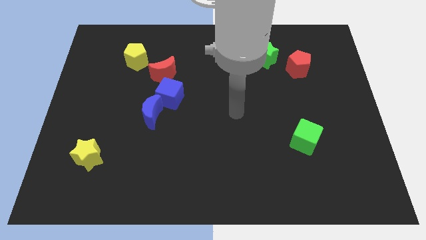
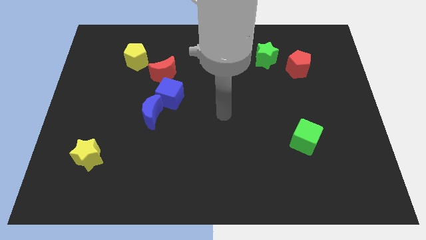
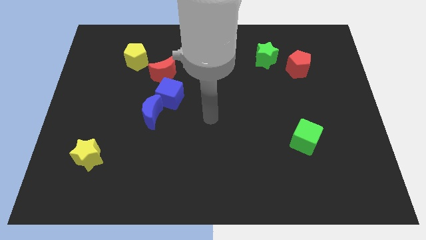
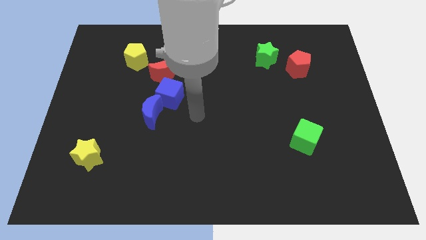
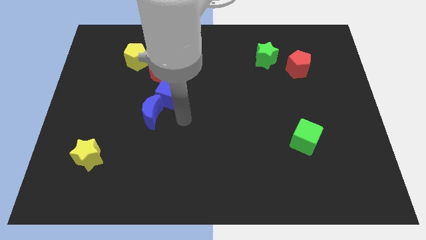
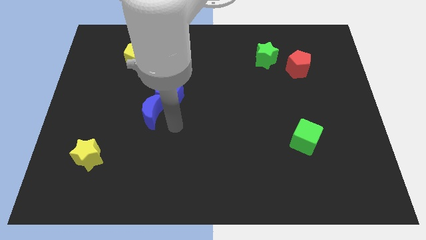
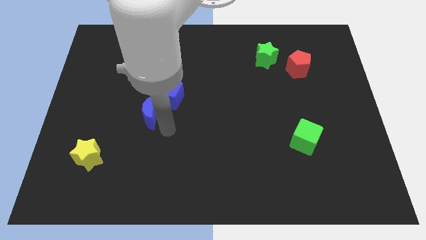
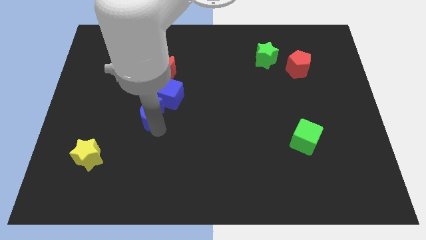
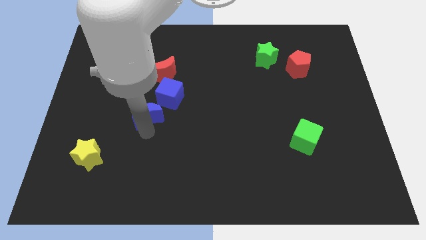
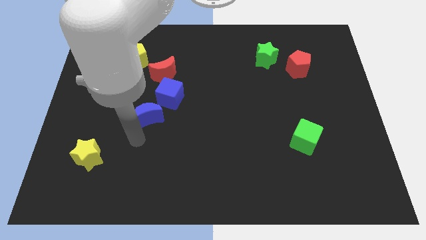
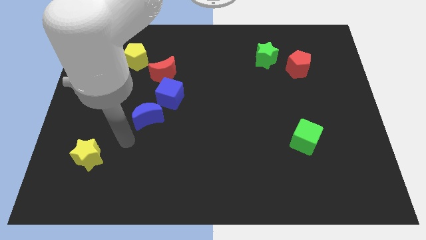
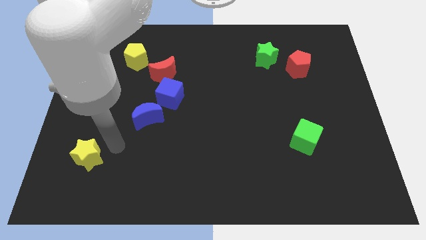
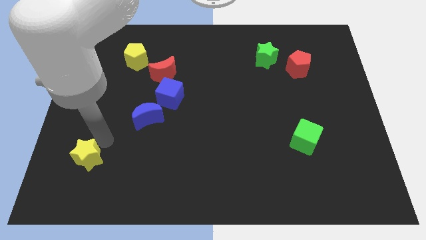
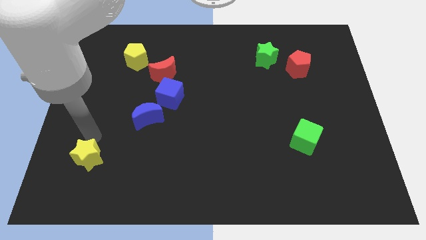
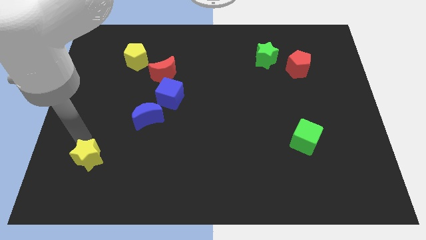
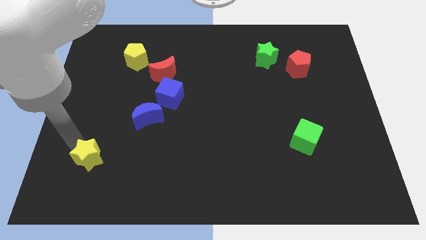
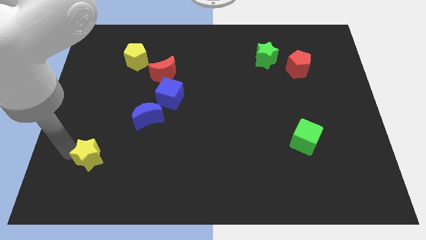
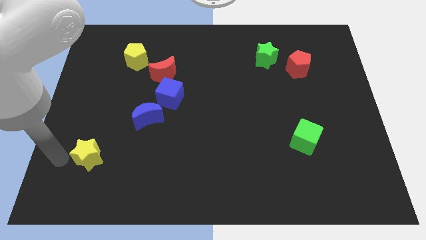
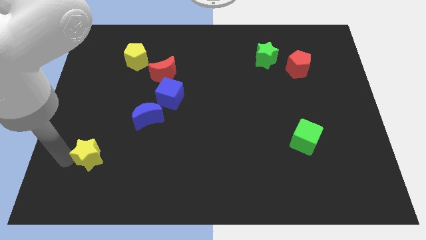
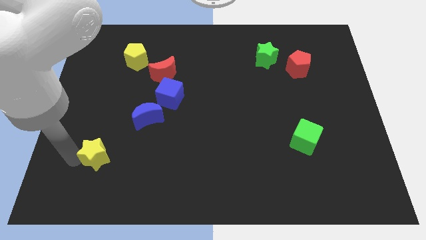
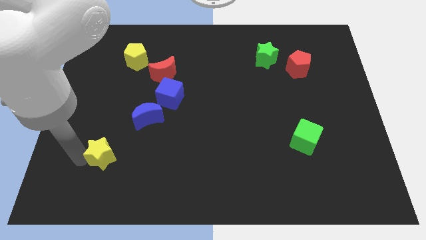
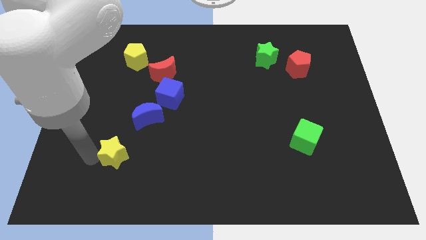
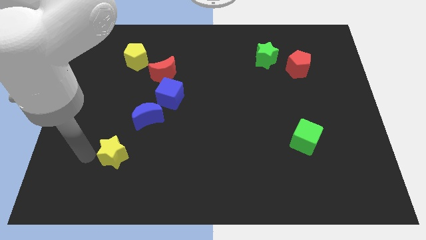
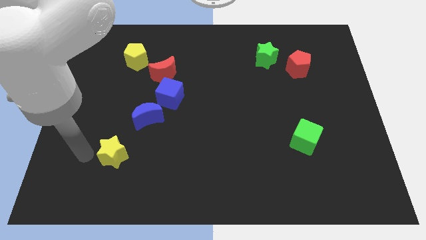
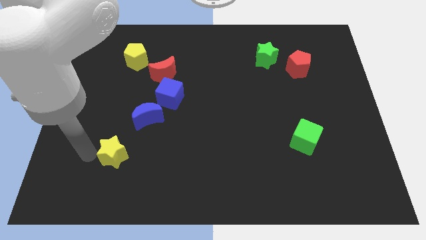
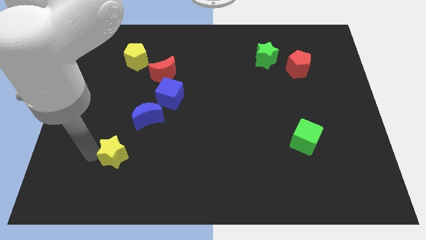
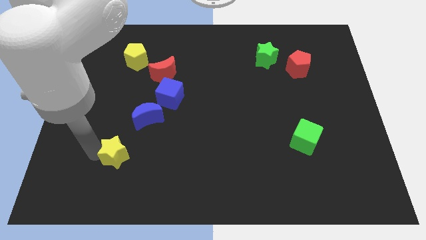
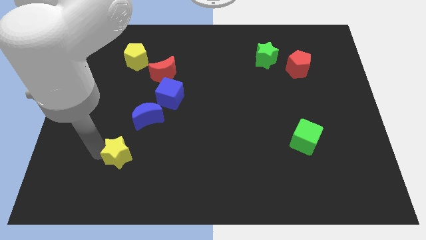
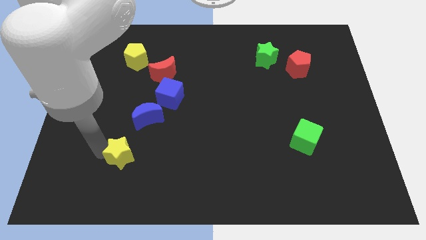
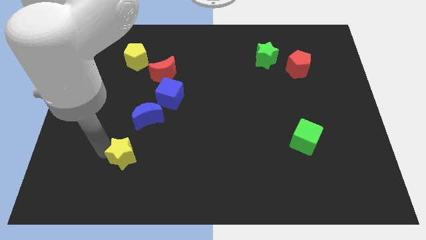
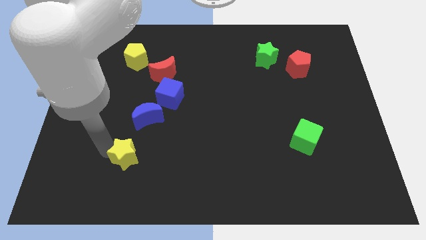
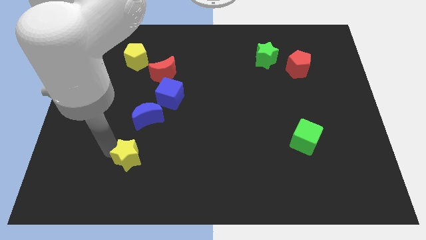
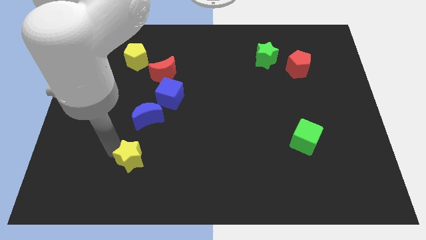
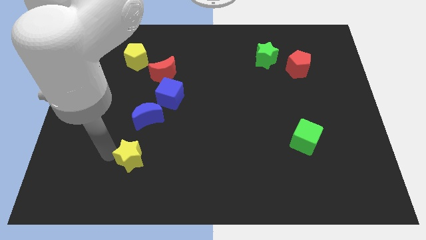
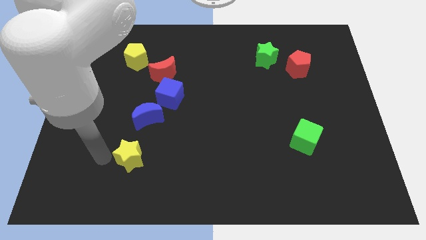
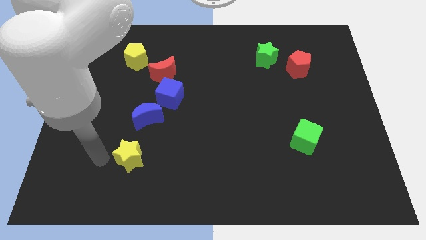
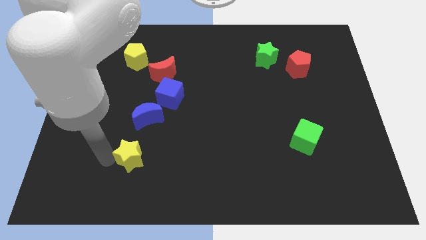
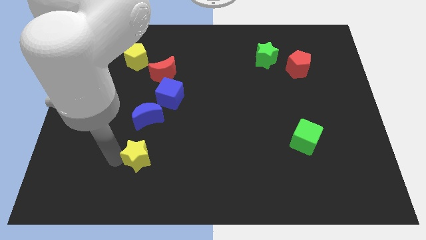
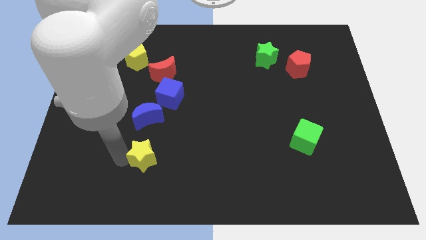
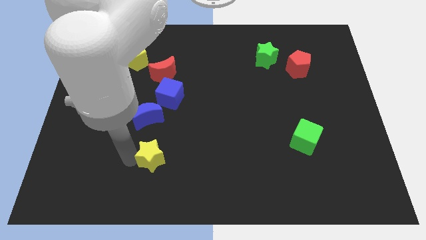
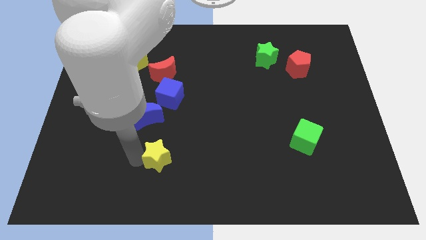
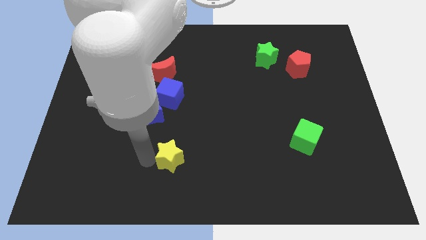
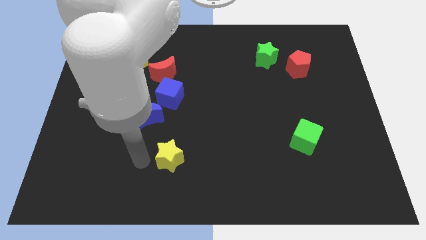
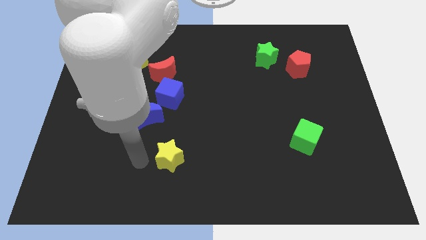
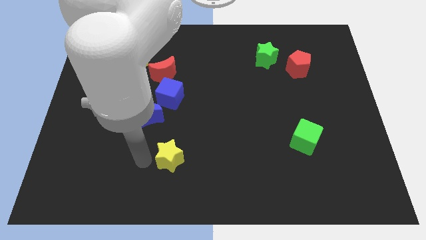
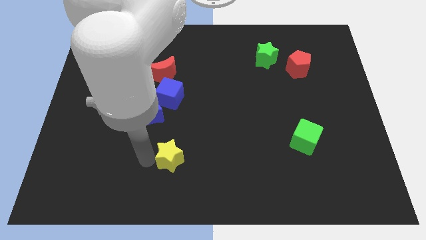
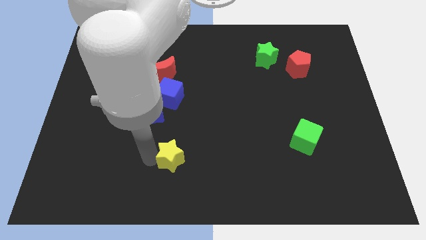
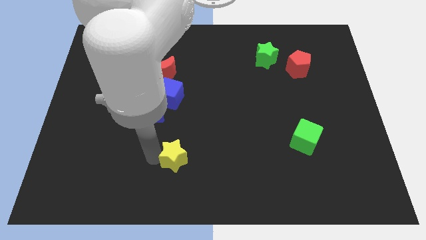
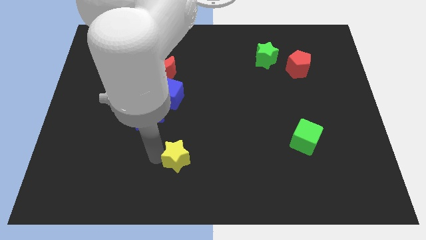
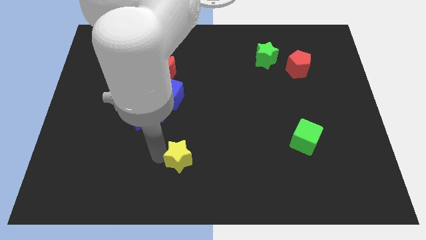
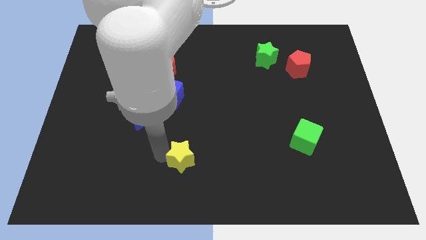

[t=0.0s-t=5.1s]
push the yellow star to the right

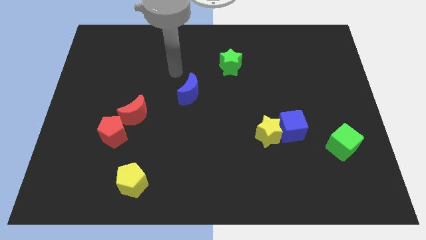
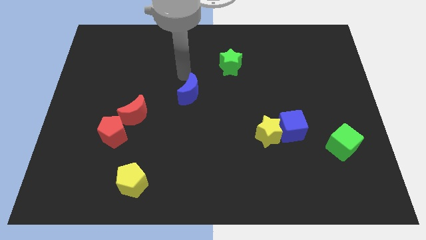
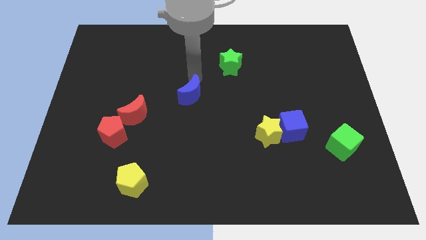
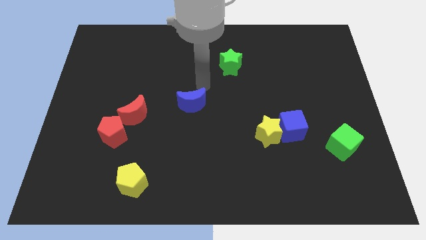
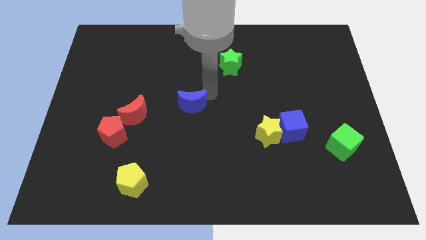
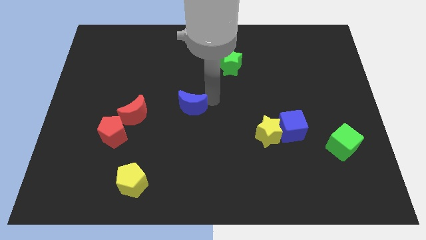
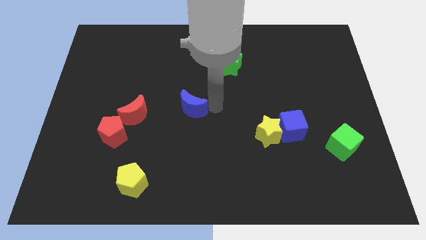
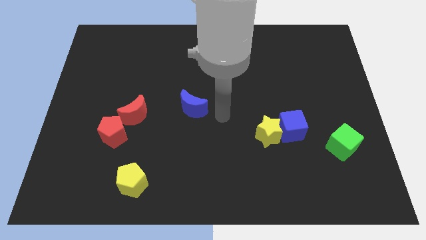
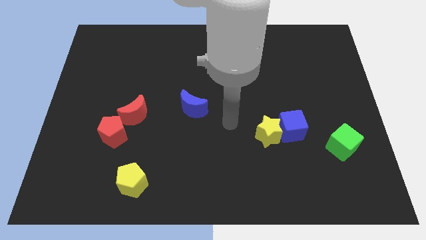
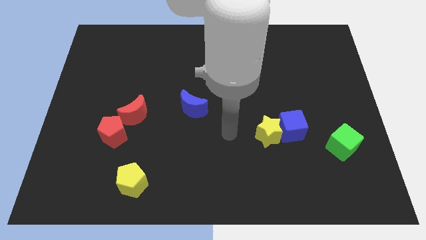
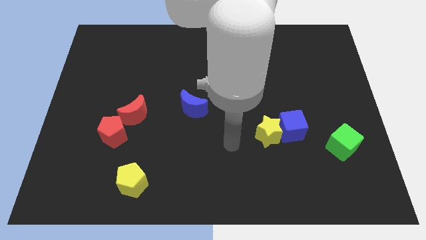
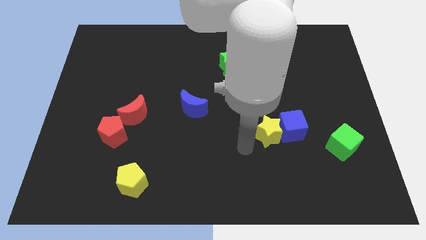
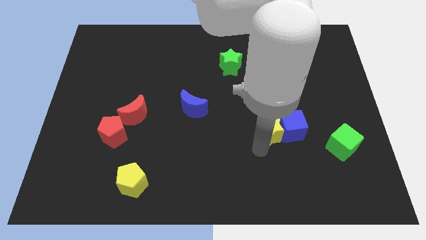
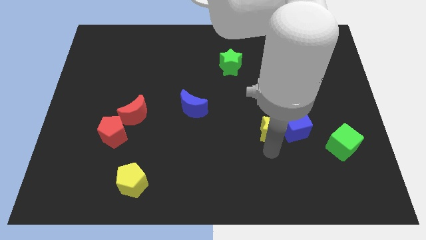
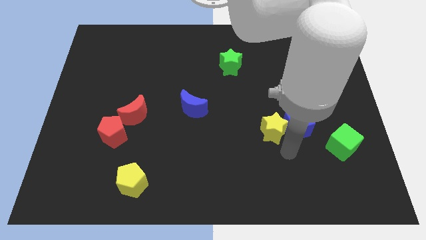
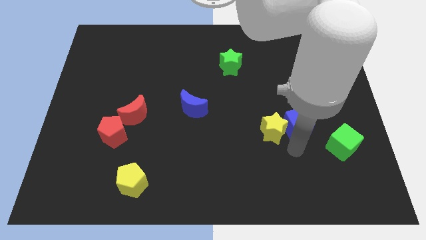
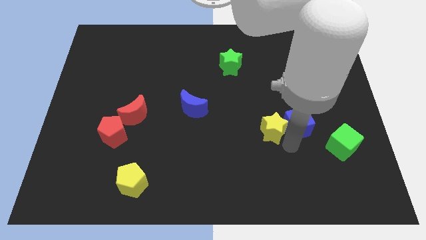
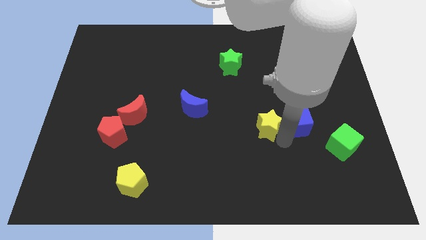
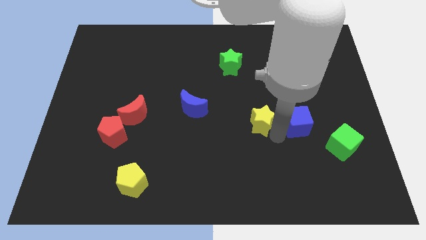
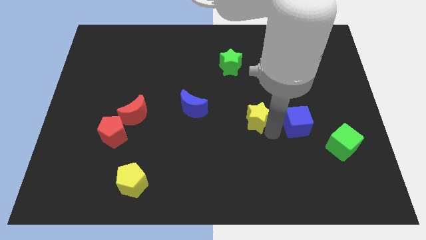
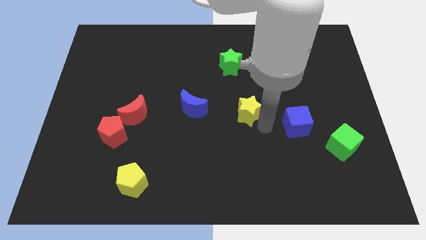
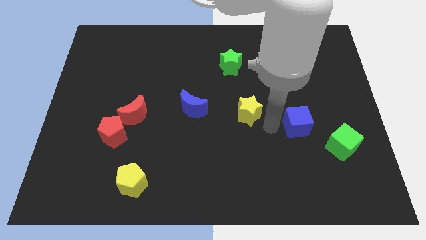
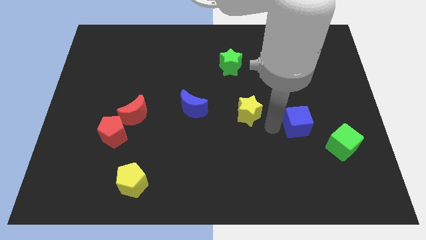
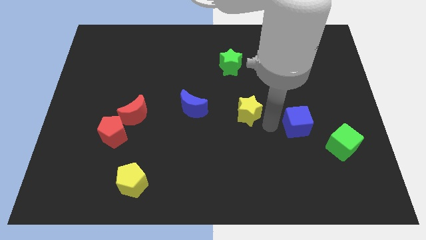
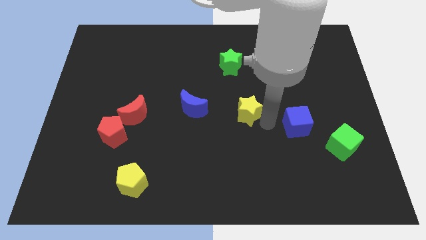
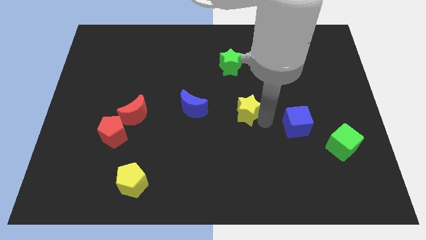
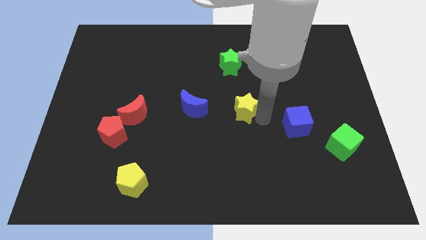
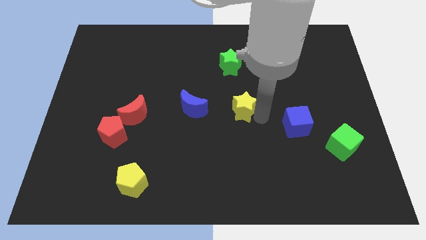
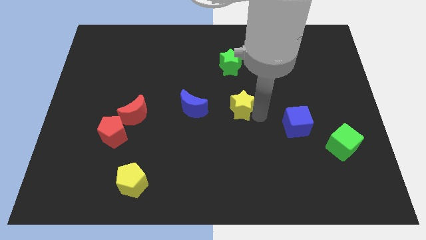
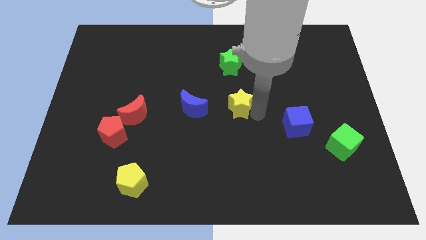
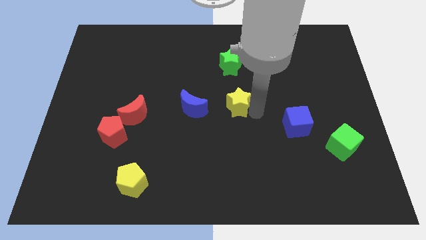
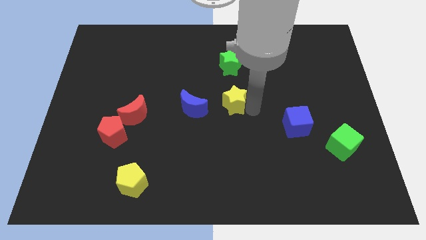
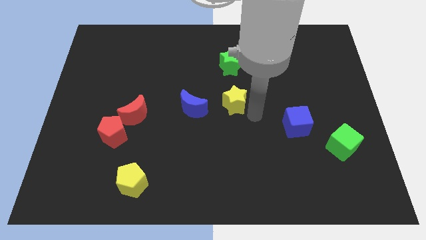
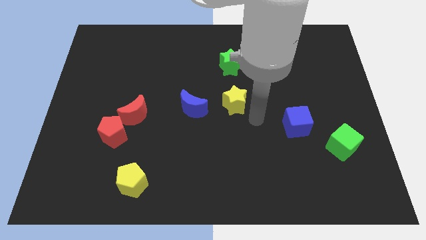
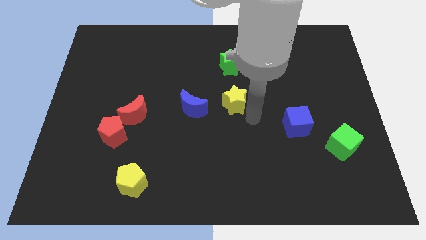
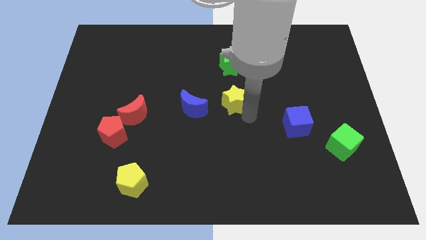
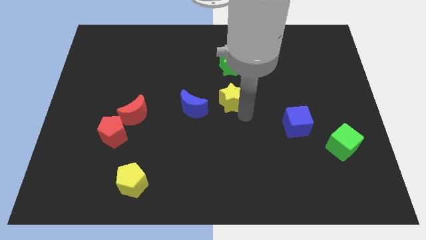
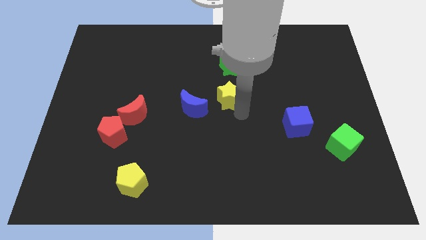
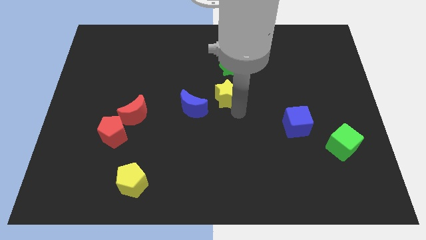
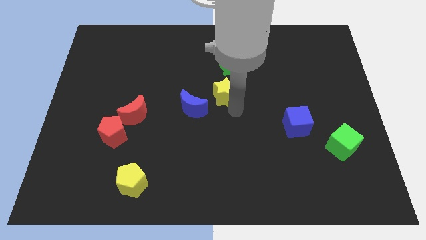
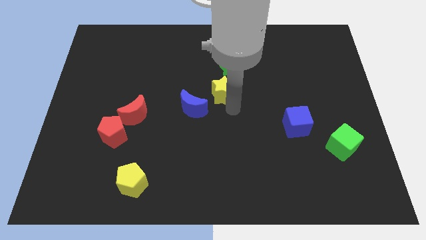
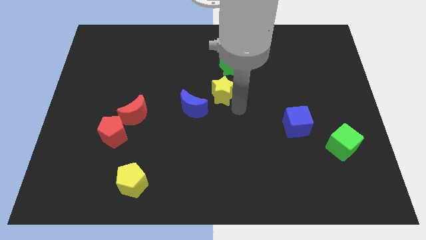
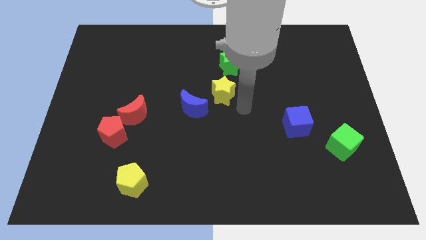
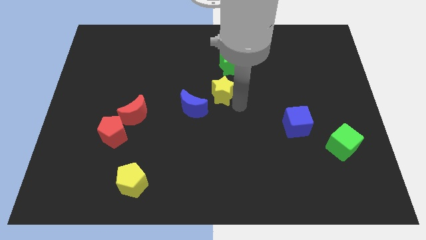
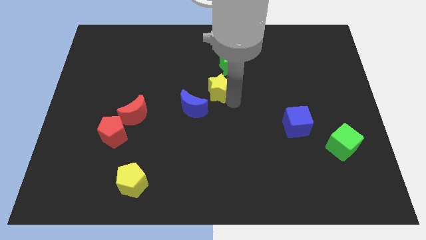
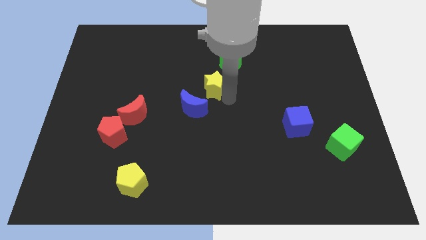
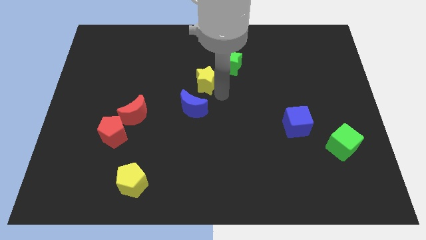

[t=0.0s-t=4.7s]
push the yellow star up and to the left
